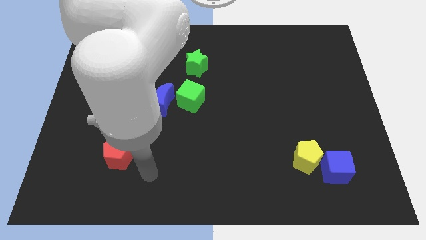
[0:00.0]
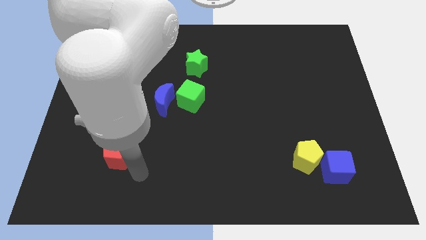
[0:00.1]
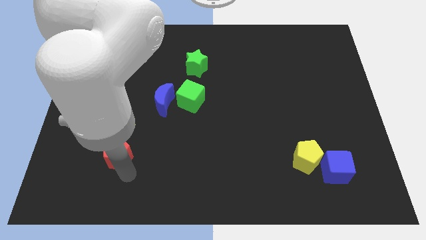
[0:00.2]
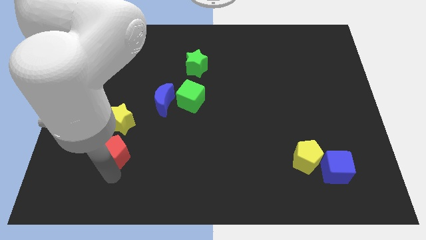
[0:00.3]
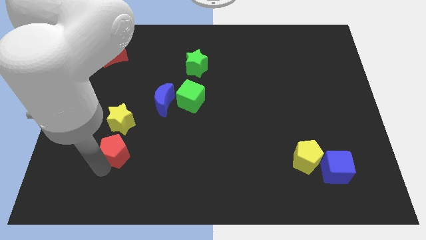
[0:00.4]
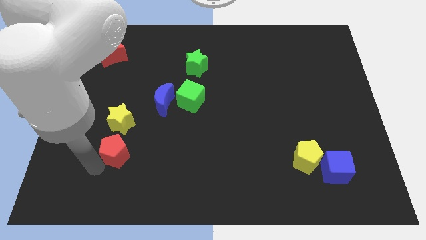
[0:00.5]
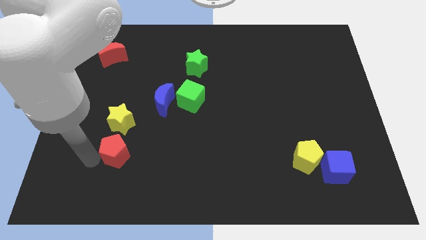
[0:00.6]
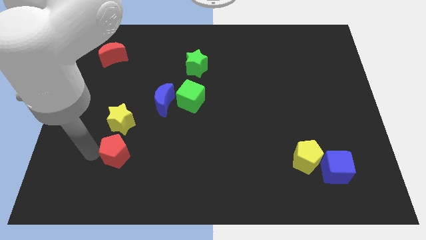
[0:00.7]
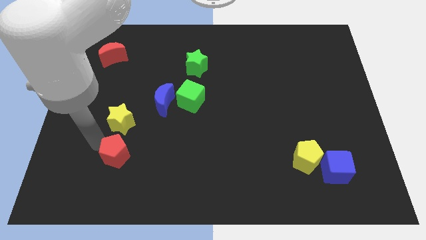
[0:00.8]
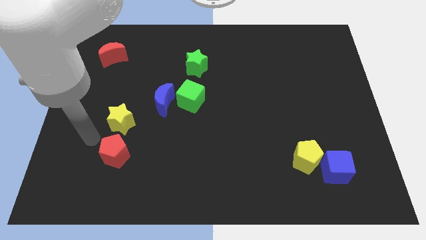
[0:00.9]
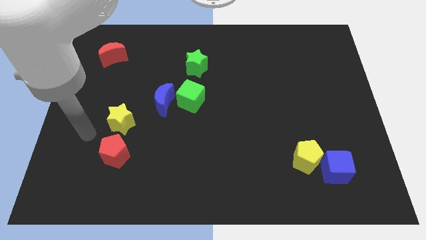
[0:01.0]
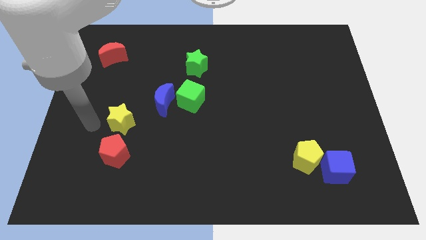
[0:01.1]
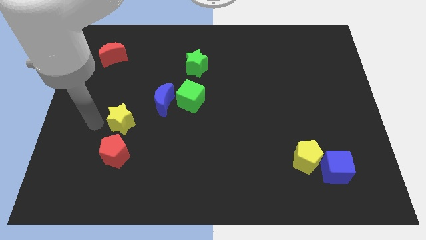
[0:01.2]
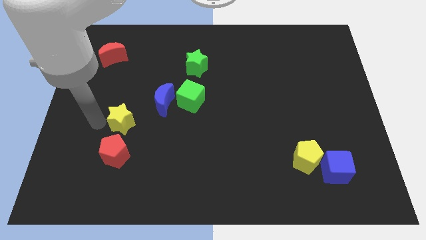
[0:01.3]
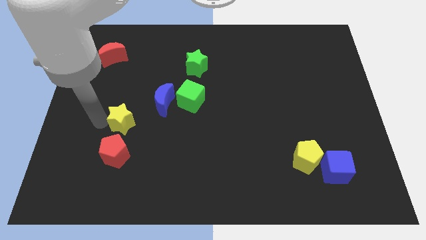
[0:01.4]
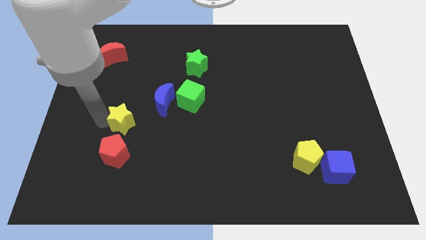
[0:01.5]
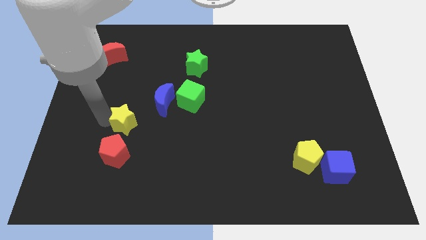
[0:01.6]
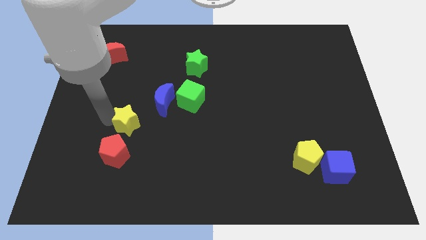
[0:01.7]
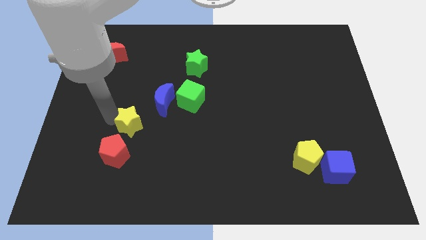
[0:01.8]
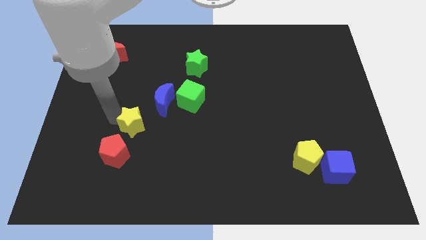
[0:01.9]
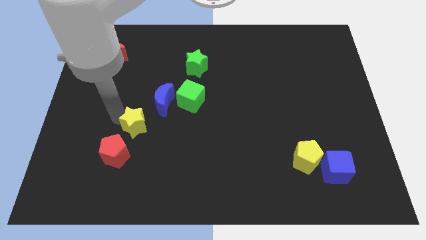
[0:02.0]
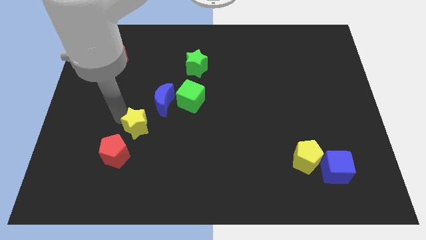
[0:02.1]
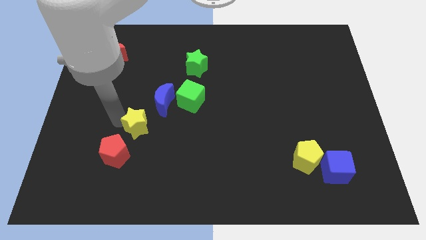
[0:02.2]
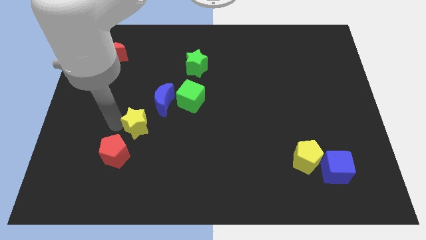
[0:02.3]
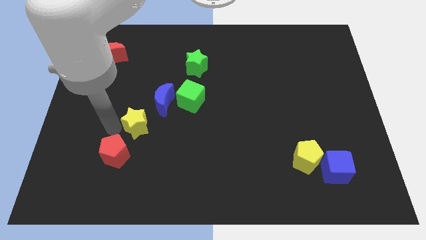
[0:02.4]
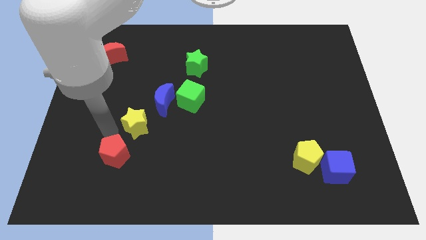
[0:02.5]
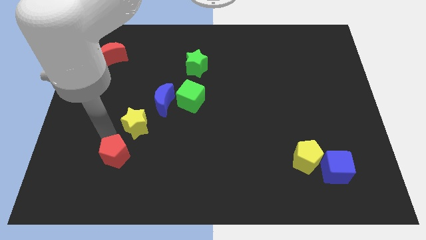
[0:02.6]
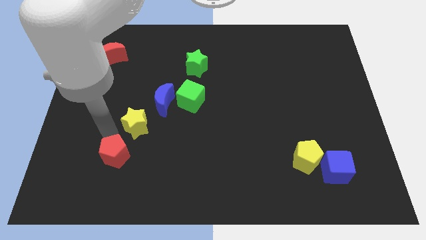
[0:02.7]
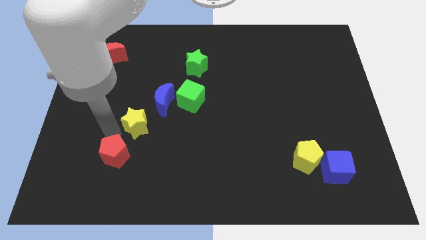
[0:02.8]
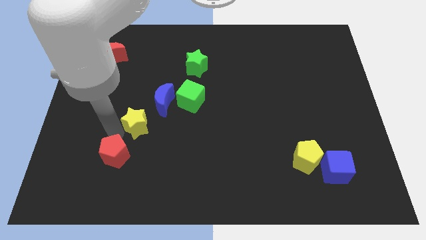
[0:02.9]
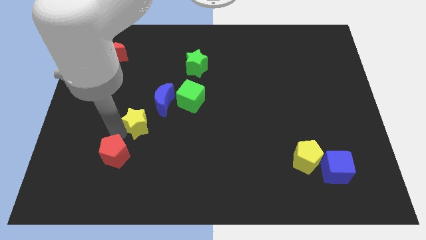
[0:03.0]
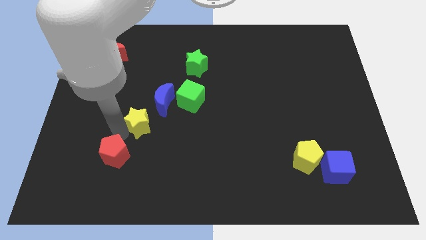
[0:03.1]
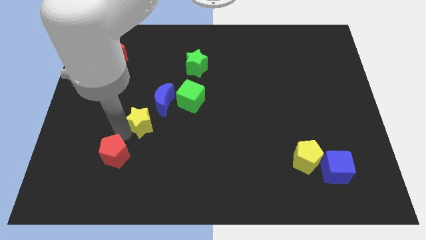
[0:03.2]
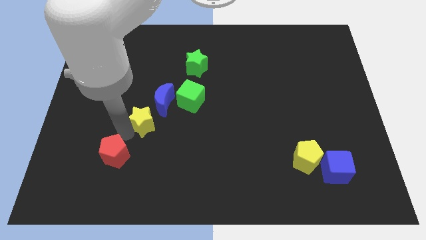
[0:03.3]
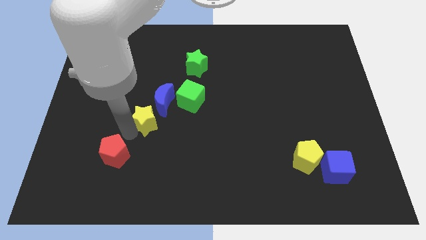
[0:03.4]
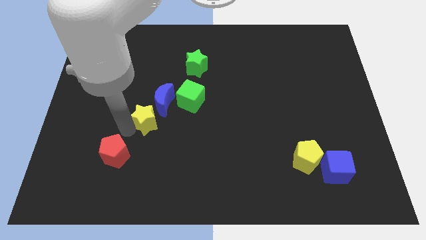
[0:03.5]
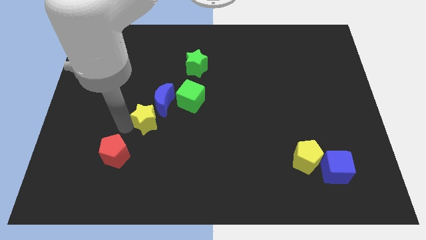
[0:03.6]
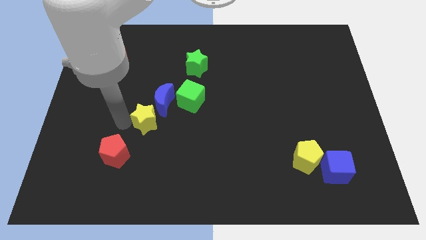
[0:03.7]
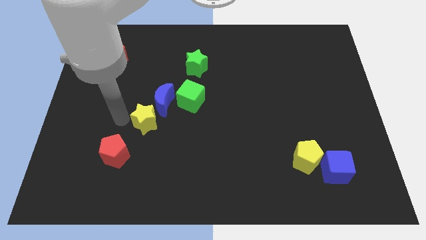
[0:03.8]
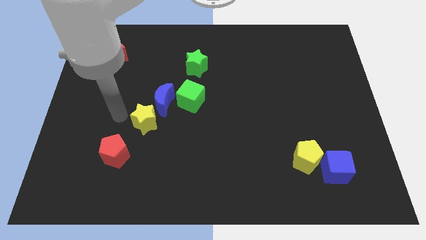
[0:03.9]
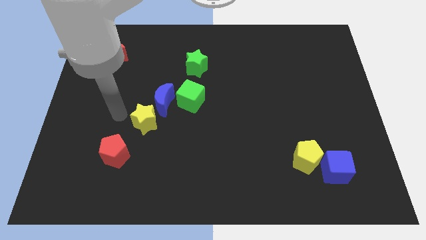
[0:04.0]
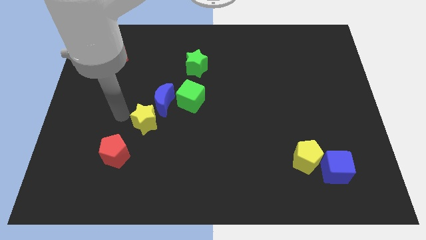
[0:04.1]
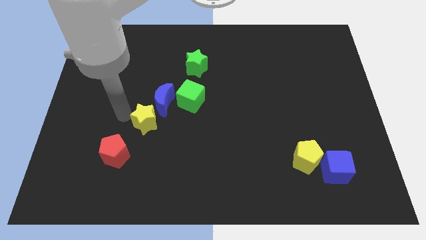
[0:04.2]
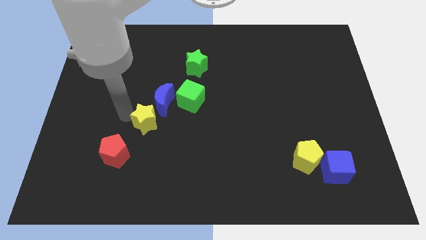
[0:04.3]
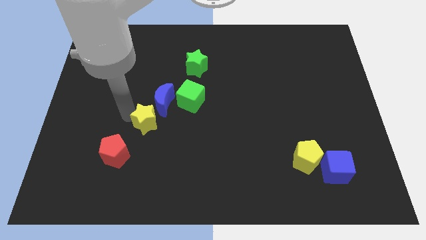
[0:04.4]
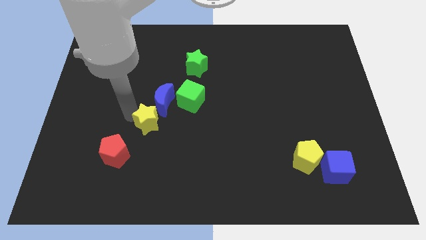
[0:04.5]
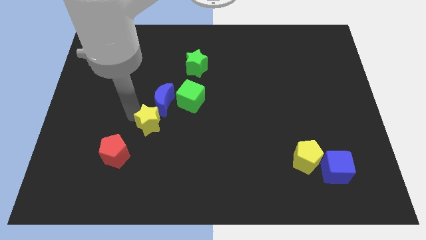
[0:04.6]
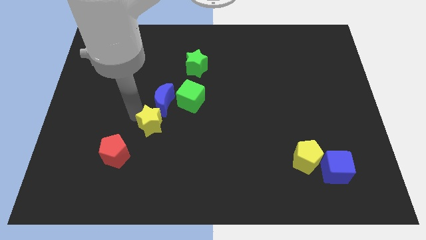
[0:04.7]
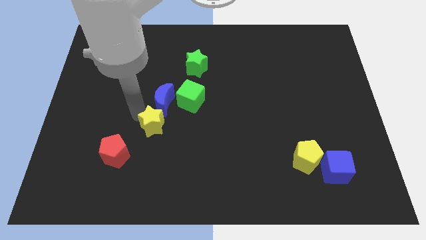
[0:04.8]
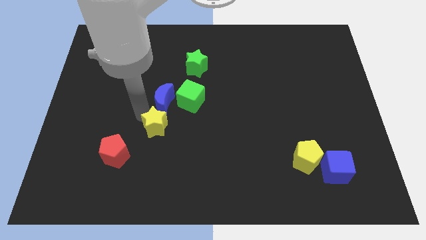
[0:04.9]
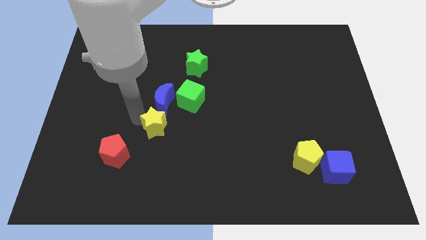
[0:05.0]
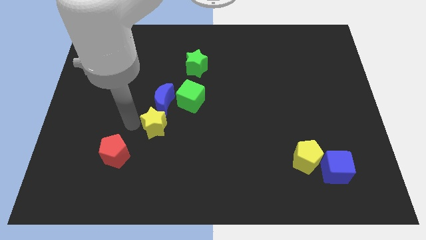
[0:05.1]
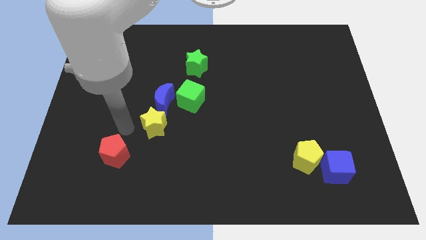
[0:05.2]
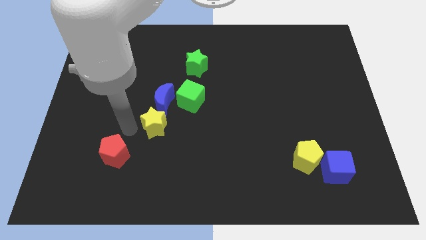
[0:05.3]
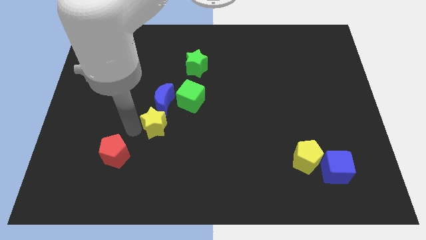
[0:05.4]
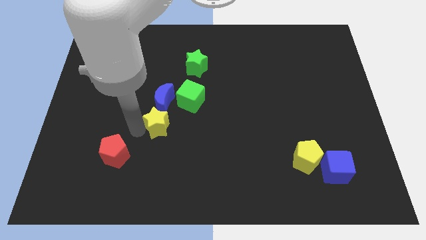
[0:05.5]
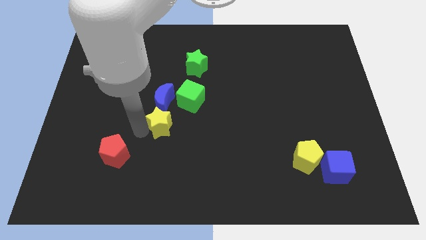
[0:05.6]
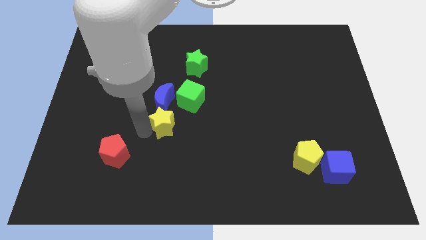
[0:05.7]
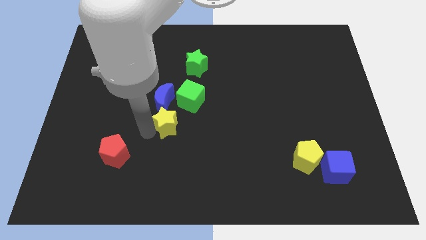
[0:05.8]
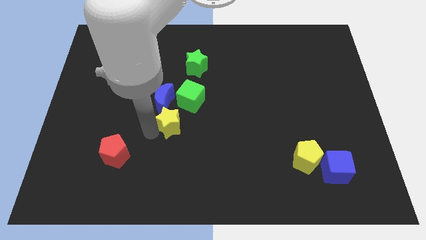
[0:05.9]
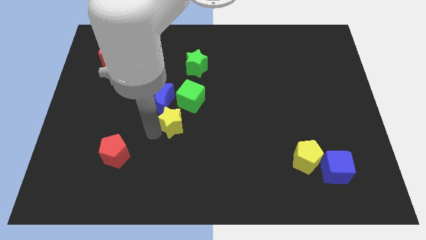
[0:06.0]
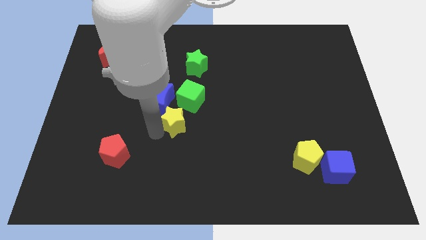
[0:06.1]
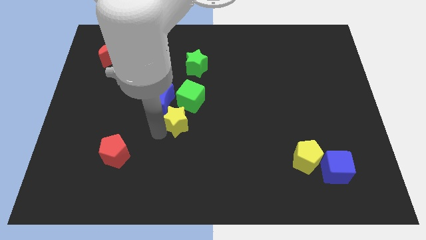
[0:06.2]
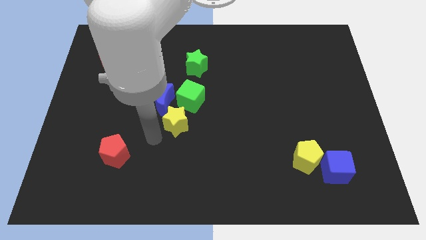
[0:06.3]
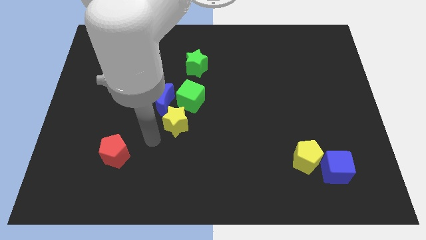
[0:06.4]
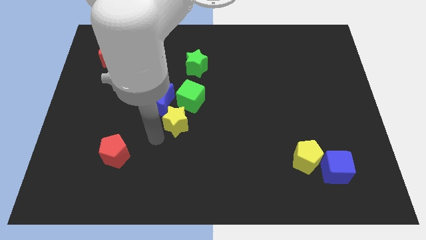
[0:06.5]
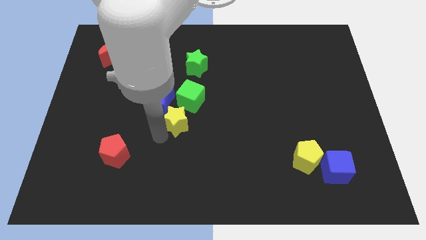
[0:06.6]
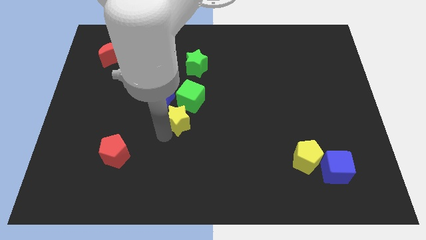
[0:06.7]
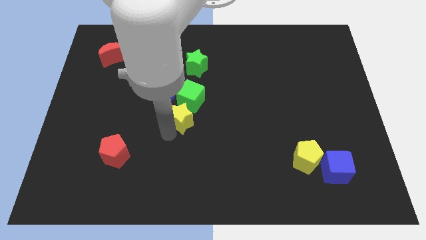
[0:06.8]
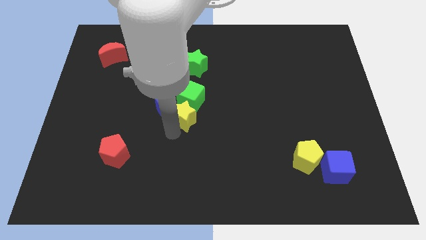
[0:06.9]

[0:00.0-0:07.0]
push the yellow star just right of the blue moon

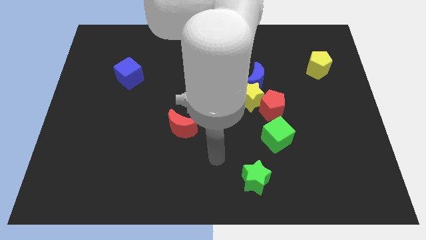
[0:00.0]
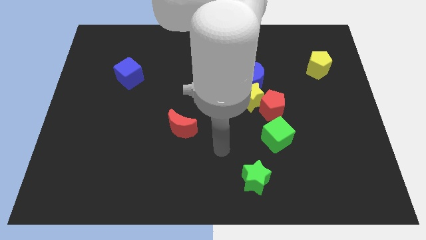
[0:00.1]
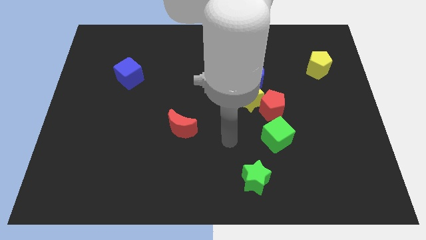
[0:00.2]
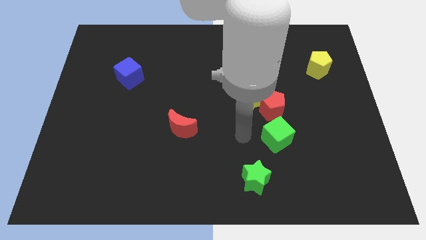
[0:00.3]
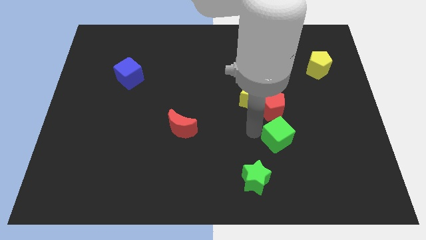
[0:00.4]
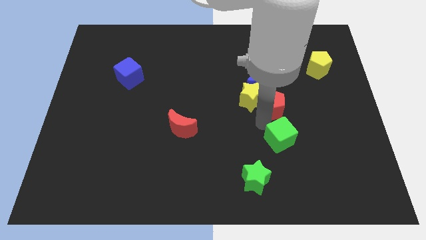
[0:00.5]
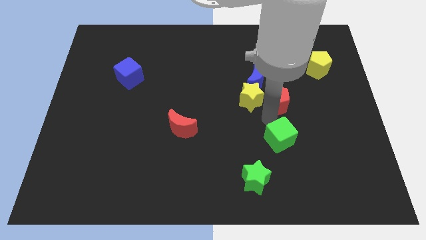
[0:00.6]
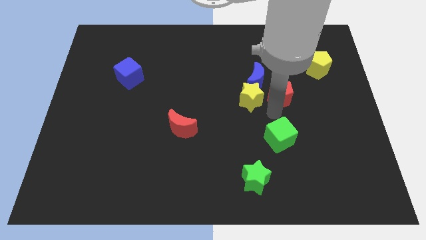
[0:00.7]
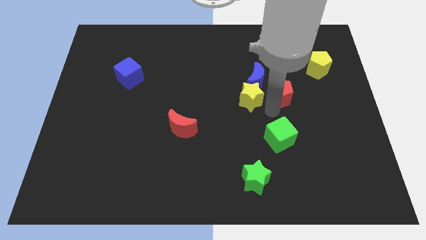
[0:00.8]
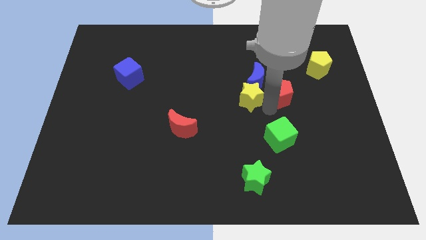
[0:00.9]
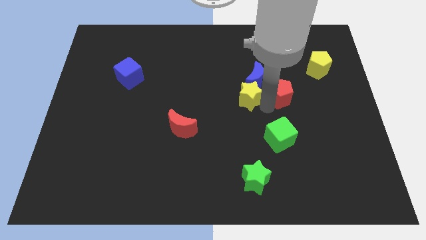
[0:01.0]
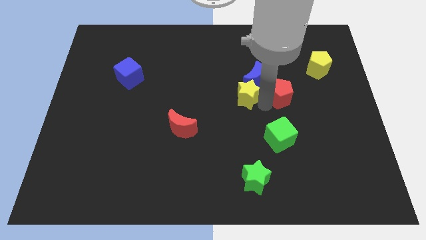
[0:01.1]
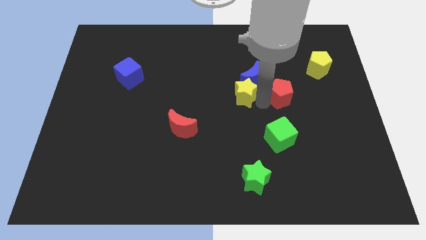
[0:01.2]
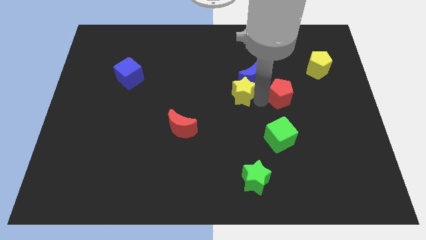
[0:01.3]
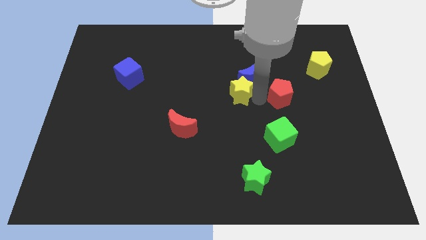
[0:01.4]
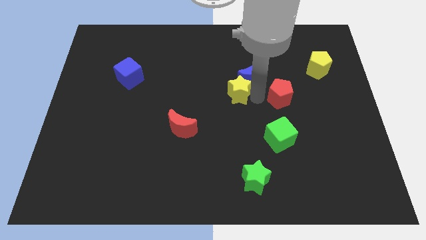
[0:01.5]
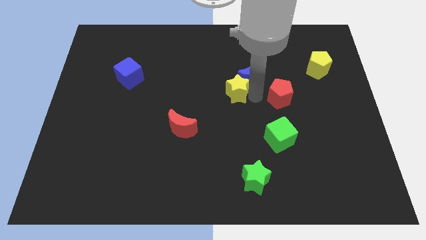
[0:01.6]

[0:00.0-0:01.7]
put the yellow star to the left of the blue moon
